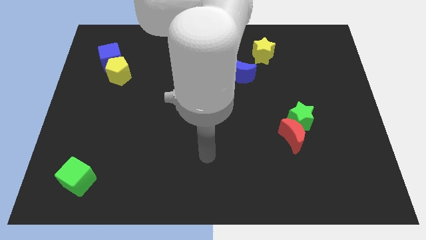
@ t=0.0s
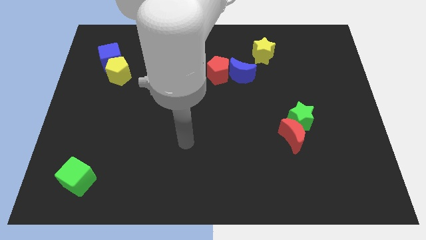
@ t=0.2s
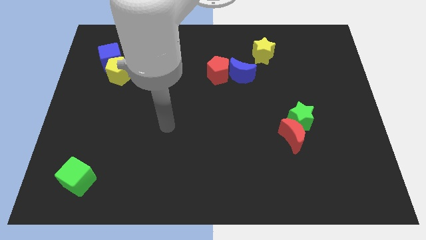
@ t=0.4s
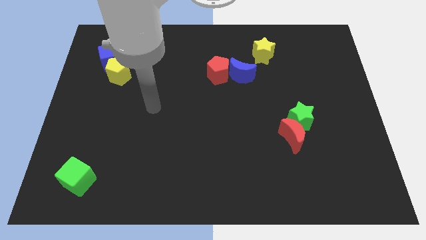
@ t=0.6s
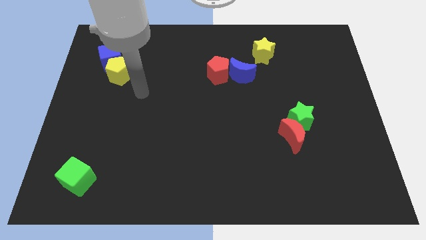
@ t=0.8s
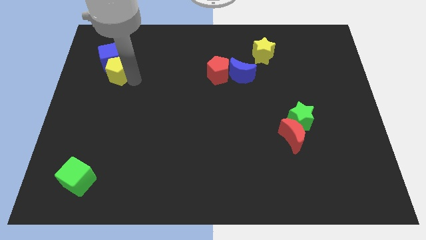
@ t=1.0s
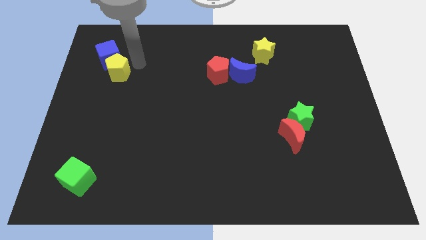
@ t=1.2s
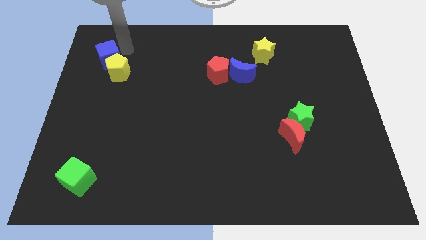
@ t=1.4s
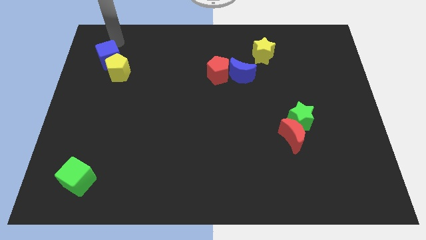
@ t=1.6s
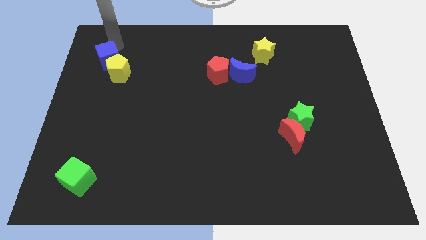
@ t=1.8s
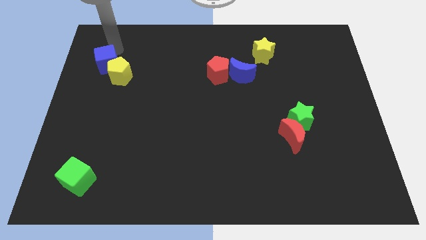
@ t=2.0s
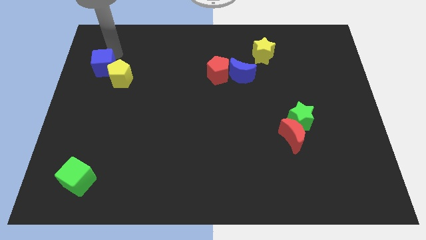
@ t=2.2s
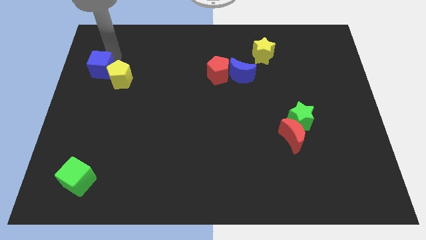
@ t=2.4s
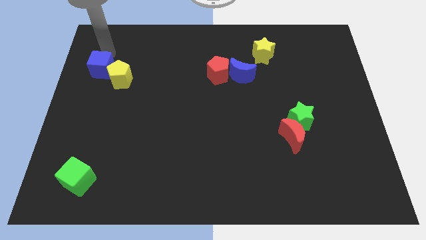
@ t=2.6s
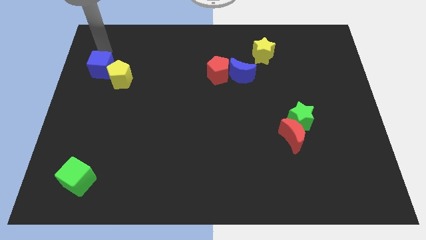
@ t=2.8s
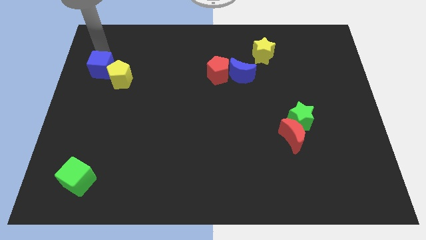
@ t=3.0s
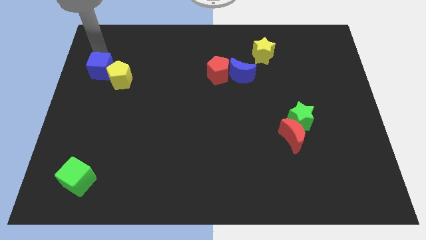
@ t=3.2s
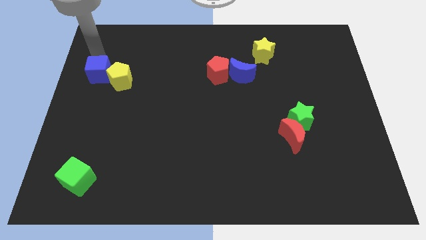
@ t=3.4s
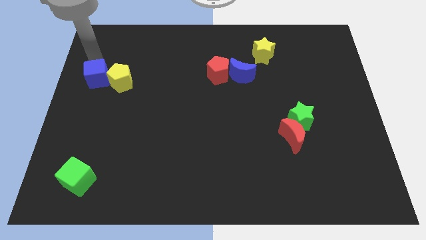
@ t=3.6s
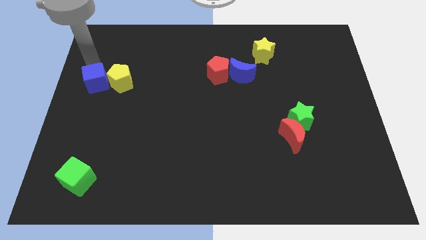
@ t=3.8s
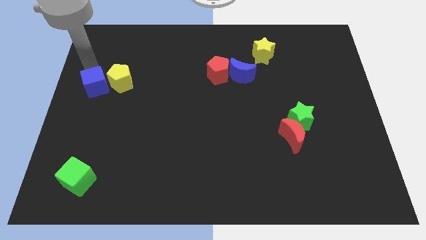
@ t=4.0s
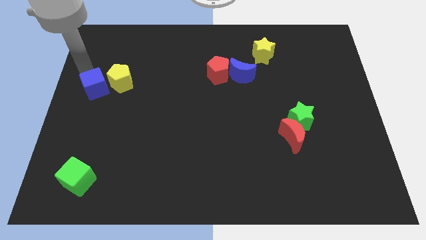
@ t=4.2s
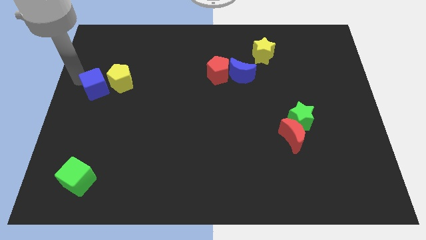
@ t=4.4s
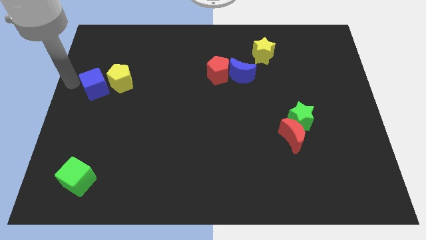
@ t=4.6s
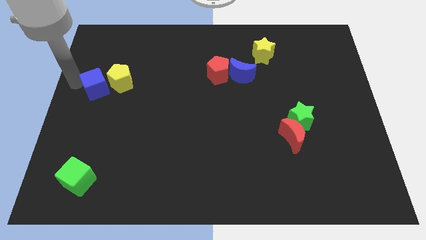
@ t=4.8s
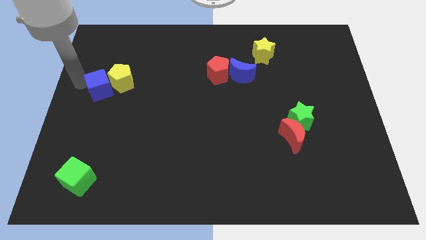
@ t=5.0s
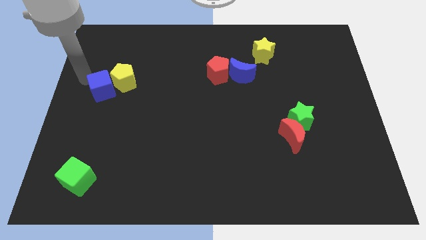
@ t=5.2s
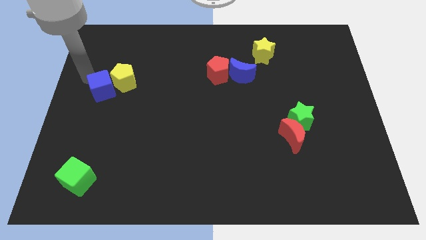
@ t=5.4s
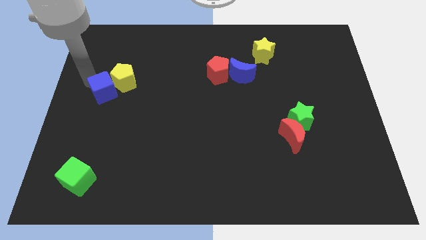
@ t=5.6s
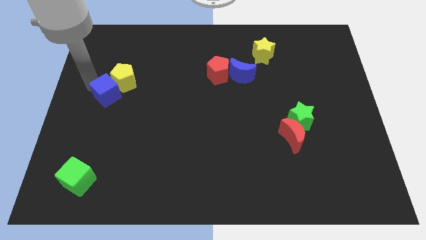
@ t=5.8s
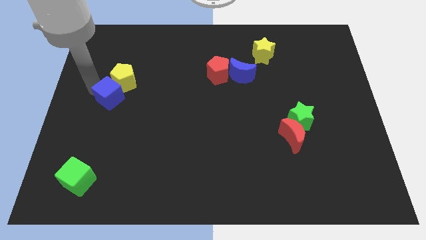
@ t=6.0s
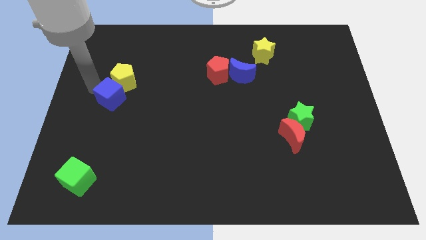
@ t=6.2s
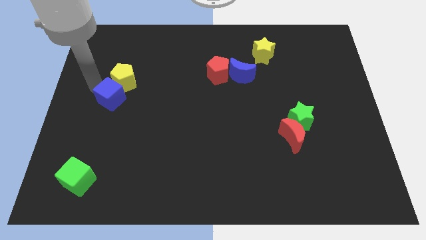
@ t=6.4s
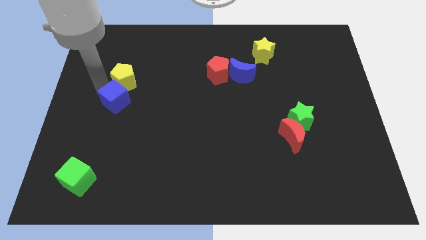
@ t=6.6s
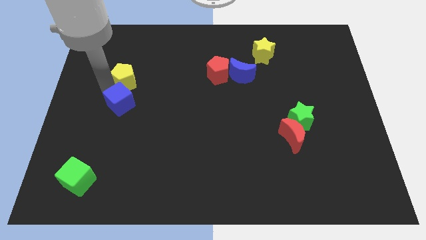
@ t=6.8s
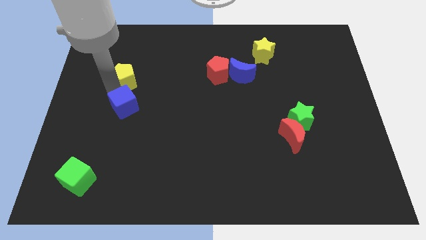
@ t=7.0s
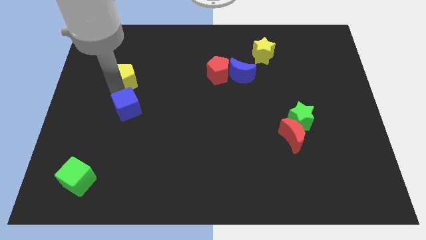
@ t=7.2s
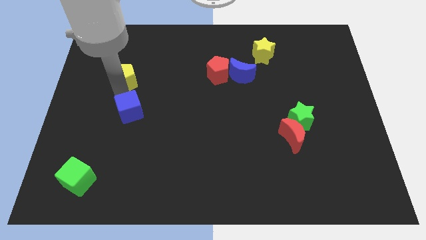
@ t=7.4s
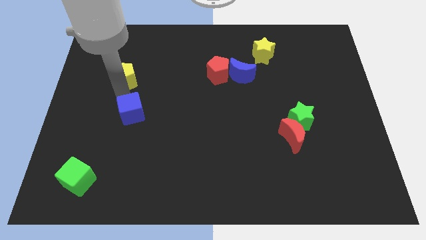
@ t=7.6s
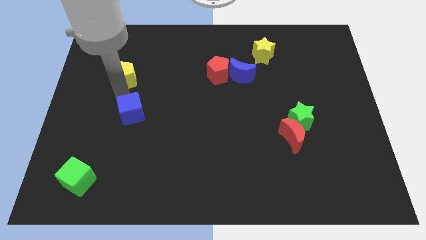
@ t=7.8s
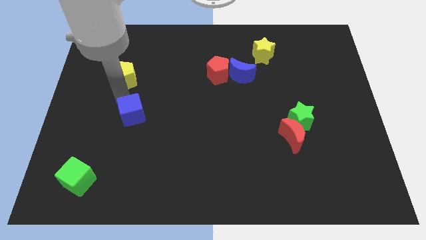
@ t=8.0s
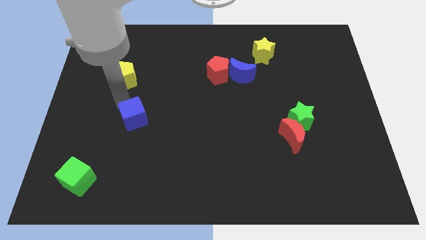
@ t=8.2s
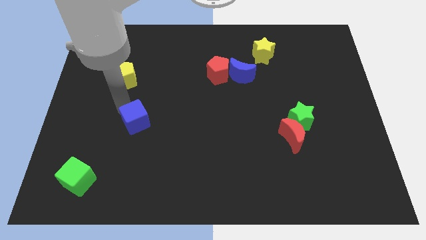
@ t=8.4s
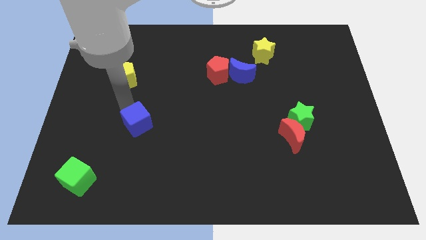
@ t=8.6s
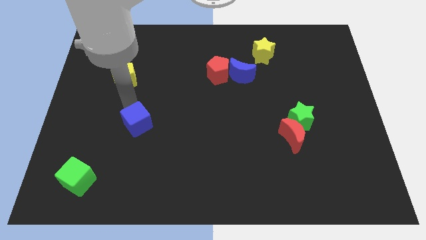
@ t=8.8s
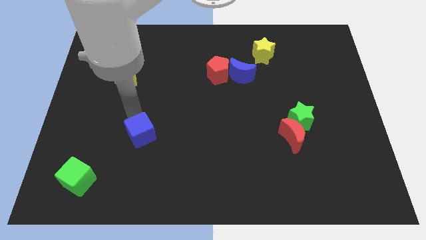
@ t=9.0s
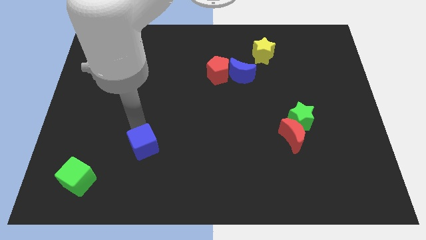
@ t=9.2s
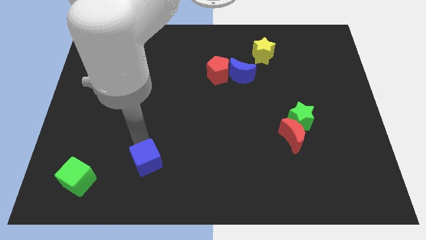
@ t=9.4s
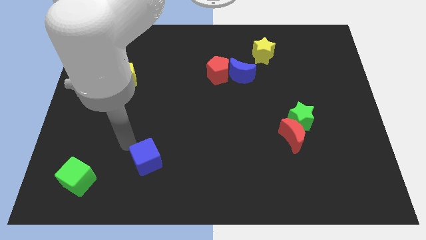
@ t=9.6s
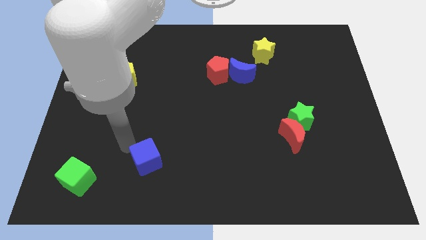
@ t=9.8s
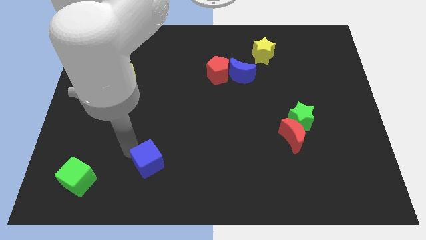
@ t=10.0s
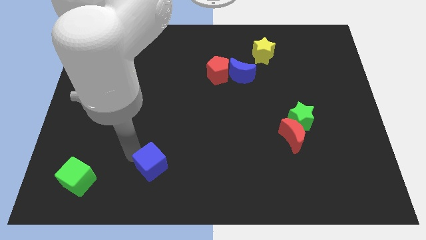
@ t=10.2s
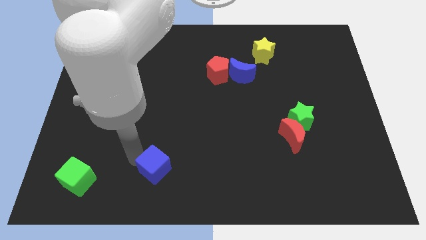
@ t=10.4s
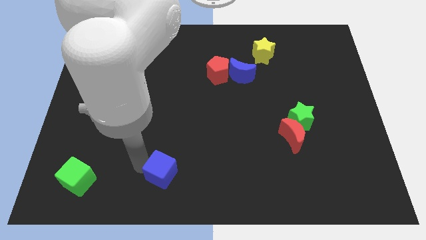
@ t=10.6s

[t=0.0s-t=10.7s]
put the blue cube to the bottom side
